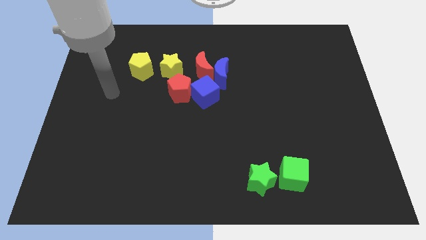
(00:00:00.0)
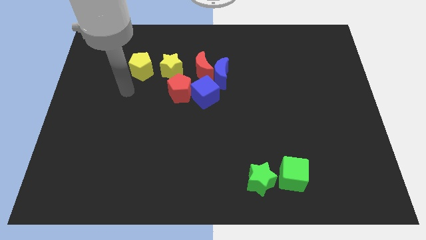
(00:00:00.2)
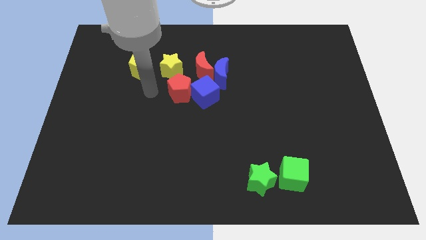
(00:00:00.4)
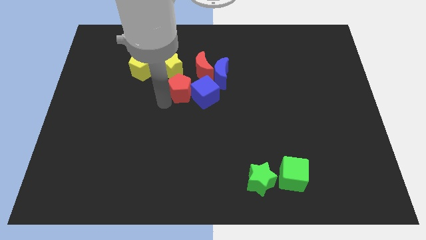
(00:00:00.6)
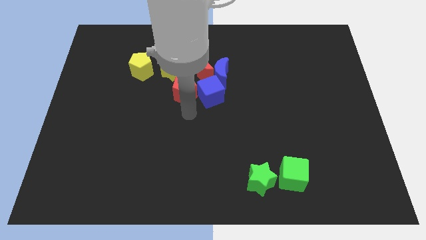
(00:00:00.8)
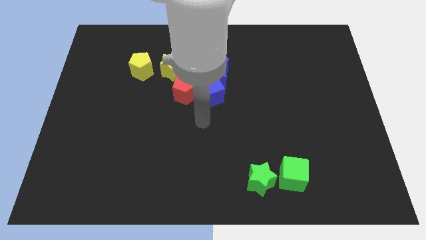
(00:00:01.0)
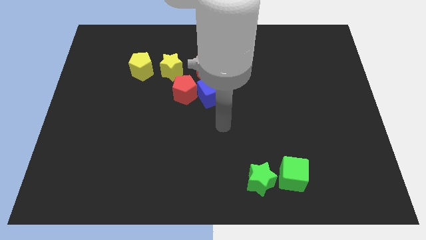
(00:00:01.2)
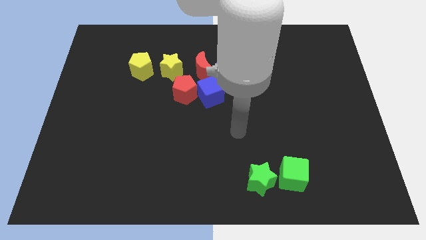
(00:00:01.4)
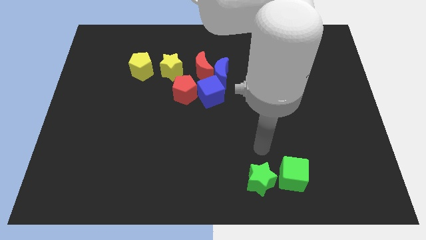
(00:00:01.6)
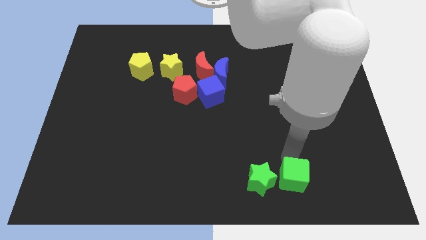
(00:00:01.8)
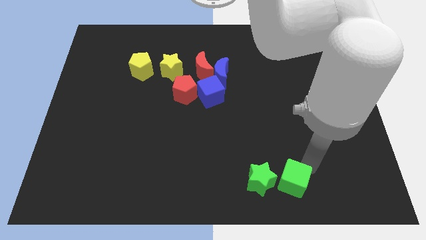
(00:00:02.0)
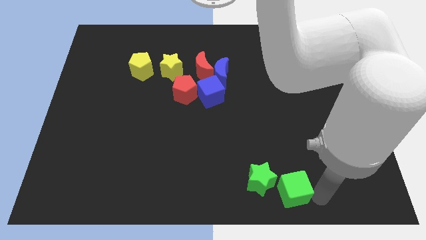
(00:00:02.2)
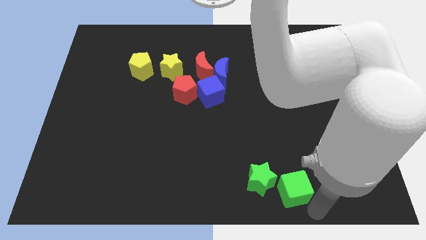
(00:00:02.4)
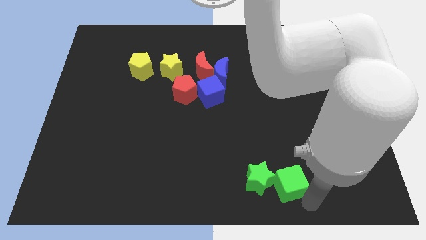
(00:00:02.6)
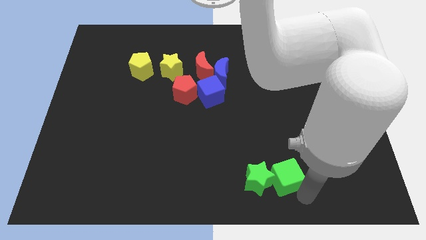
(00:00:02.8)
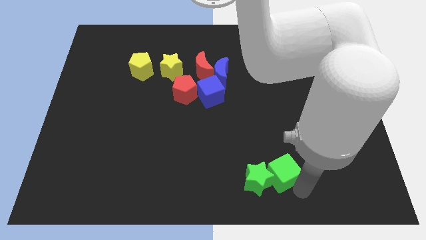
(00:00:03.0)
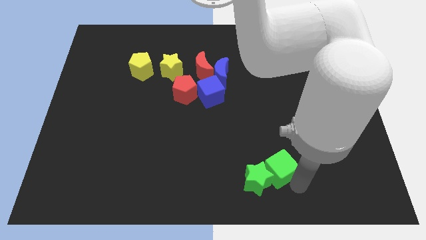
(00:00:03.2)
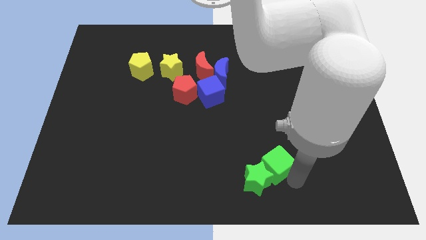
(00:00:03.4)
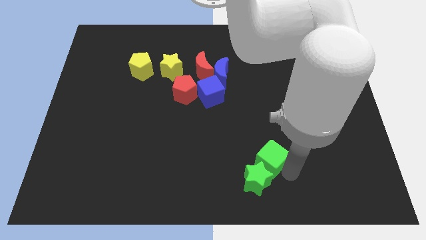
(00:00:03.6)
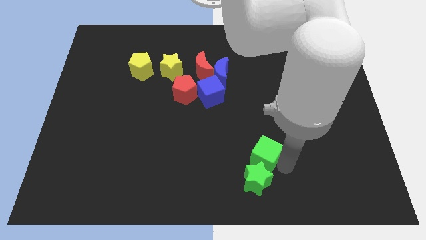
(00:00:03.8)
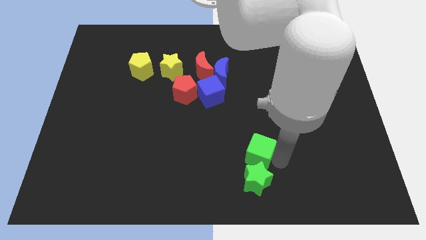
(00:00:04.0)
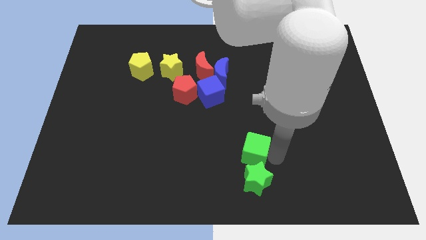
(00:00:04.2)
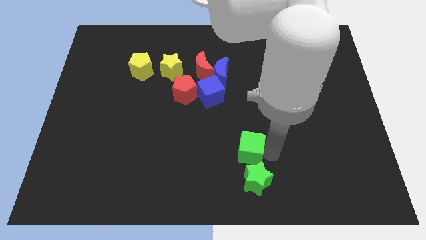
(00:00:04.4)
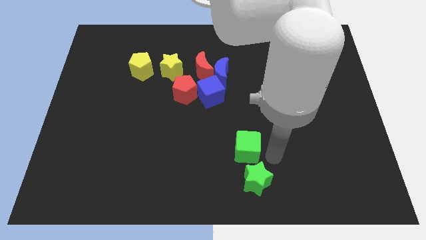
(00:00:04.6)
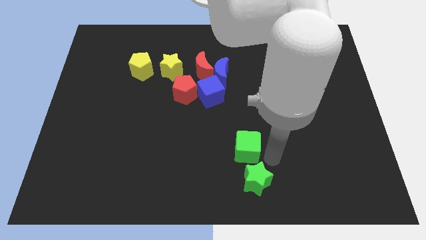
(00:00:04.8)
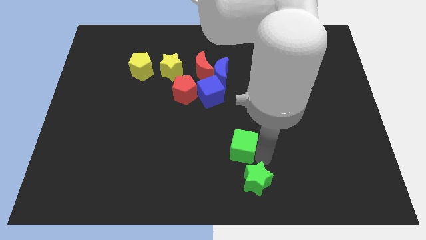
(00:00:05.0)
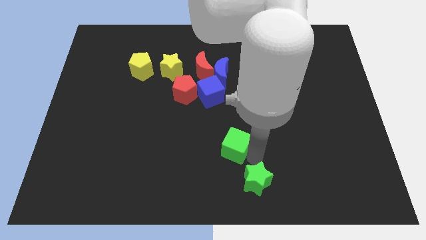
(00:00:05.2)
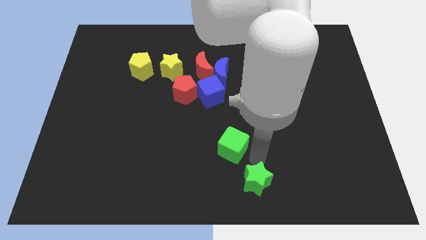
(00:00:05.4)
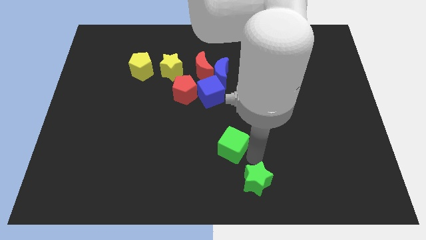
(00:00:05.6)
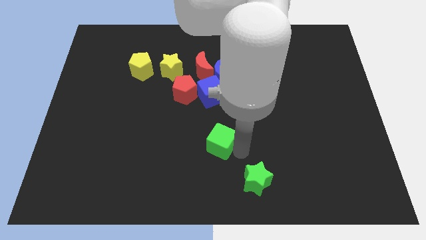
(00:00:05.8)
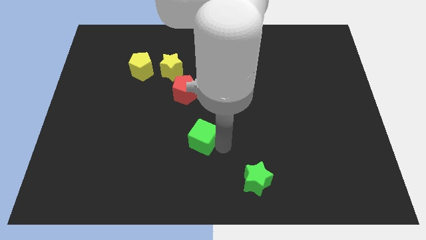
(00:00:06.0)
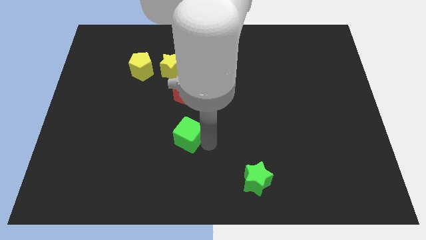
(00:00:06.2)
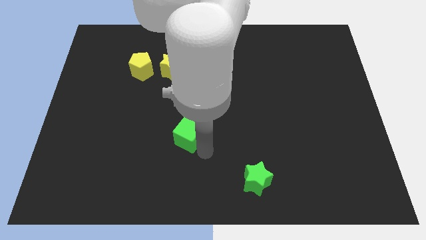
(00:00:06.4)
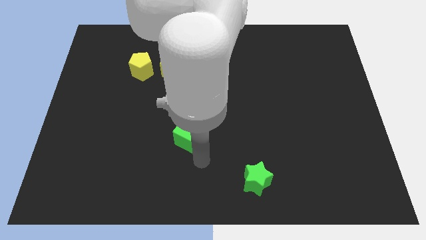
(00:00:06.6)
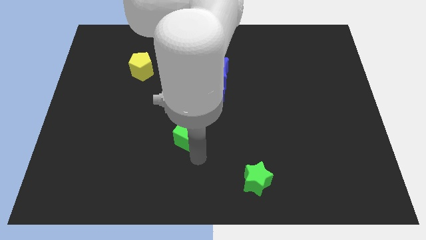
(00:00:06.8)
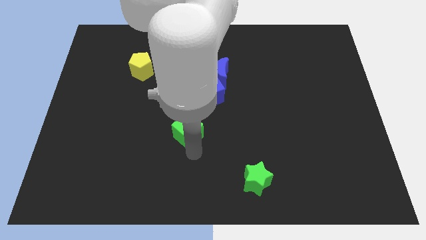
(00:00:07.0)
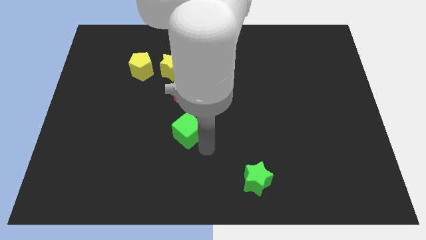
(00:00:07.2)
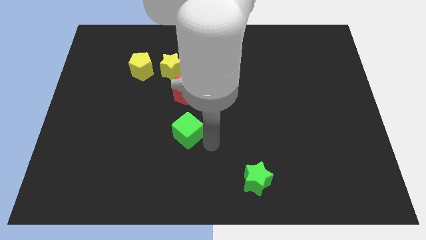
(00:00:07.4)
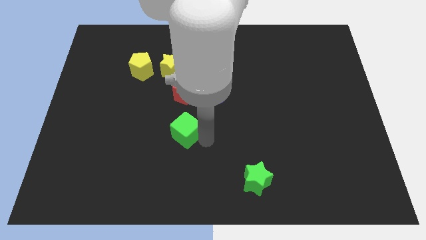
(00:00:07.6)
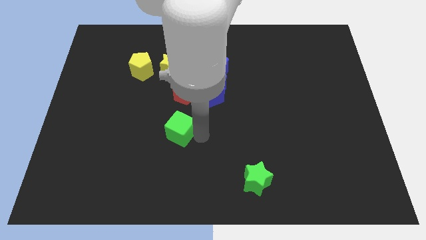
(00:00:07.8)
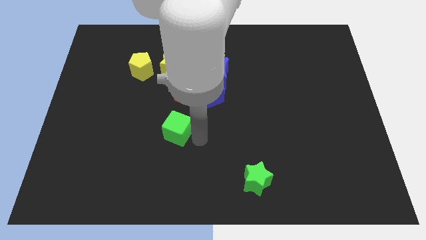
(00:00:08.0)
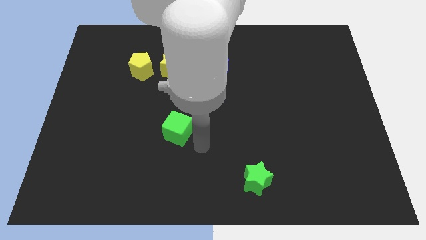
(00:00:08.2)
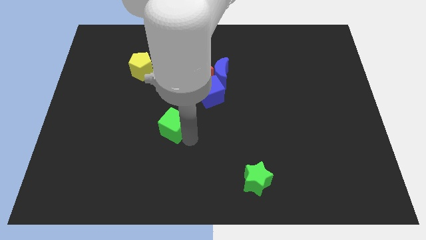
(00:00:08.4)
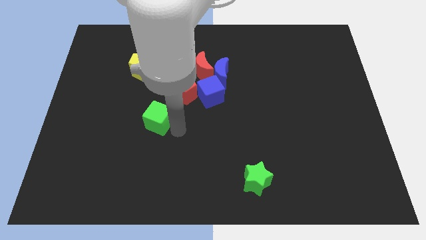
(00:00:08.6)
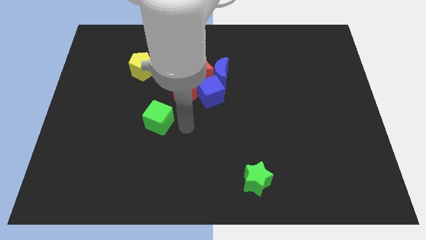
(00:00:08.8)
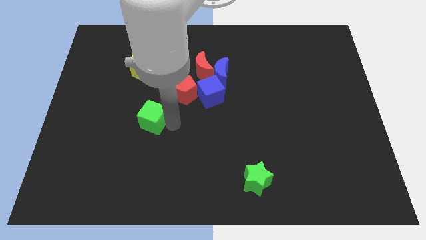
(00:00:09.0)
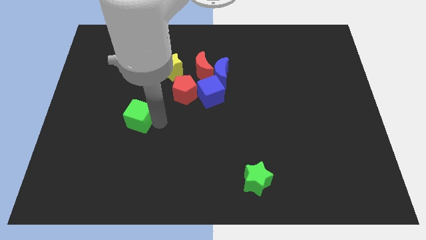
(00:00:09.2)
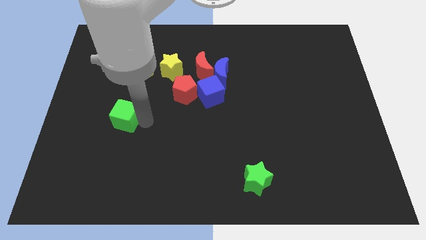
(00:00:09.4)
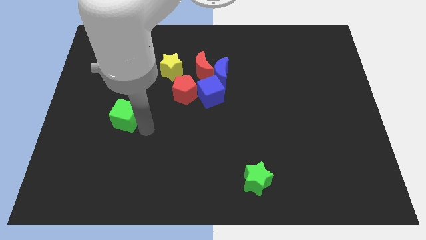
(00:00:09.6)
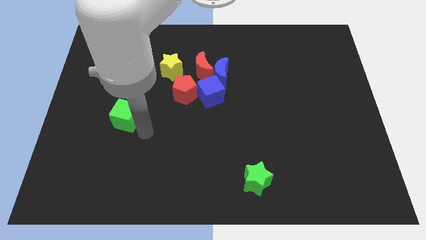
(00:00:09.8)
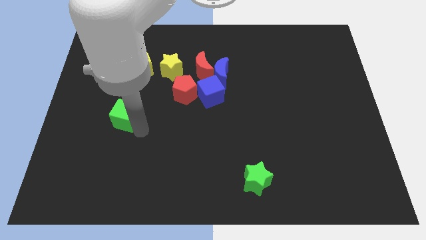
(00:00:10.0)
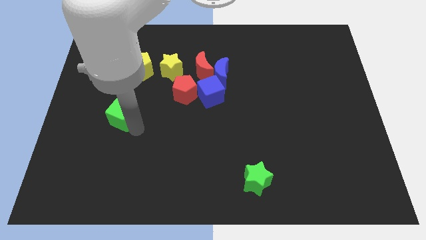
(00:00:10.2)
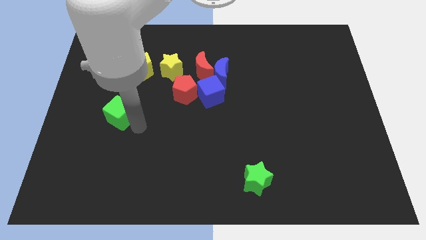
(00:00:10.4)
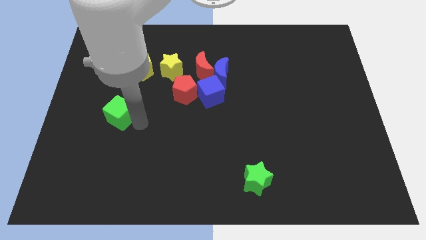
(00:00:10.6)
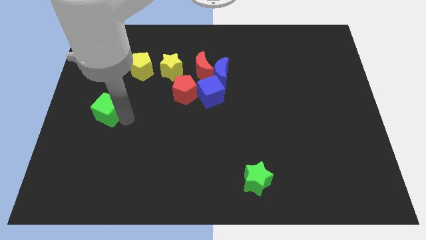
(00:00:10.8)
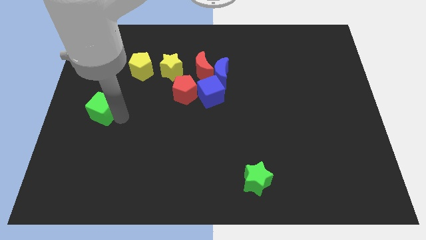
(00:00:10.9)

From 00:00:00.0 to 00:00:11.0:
put the green cube to the left side

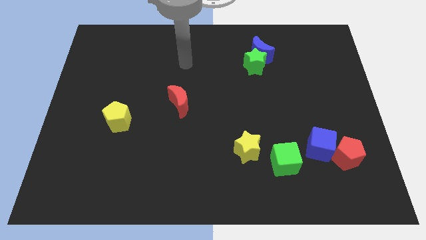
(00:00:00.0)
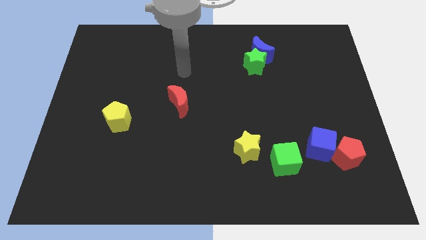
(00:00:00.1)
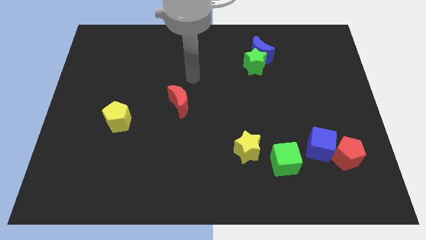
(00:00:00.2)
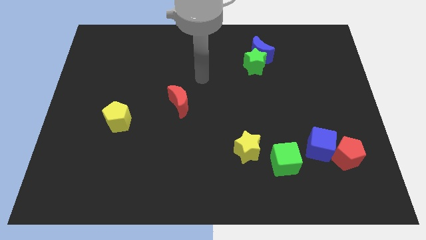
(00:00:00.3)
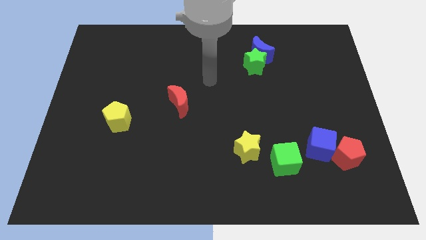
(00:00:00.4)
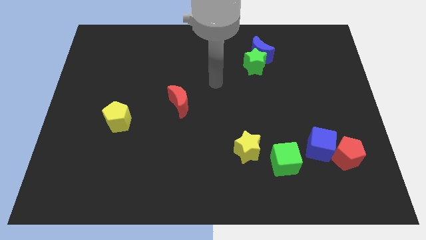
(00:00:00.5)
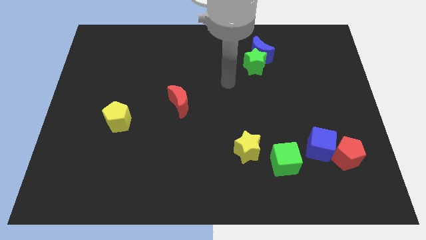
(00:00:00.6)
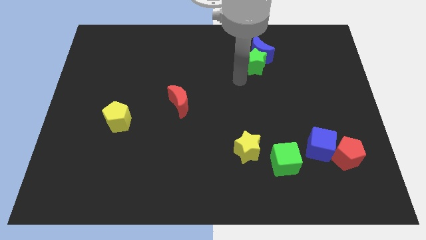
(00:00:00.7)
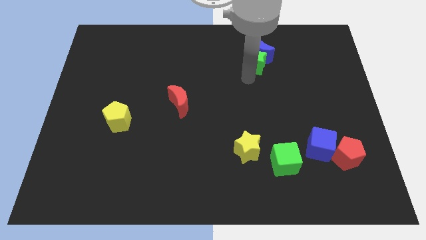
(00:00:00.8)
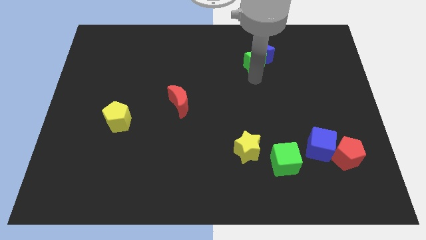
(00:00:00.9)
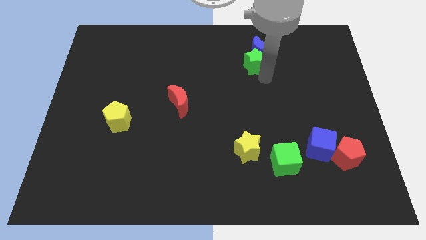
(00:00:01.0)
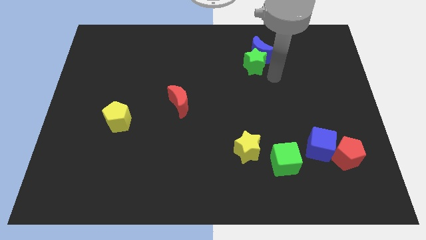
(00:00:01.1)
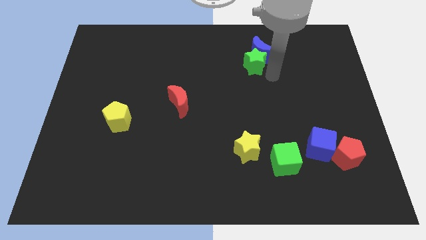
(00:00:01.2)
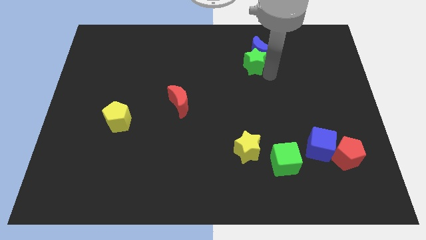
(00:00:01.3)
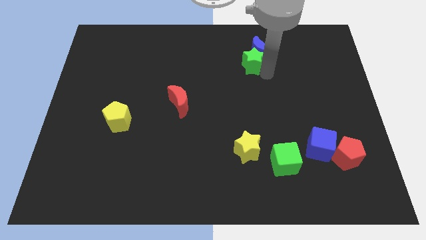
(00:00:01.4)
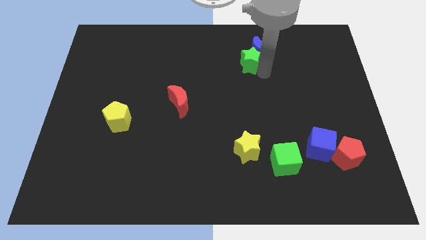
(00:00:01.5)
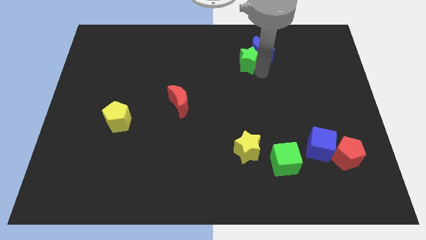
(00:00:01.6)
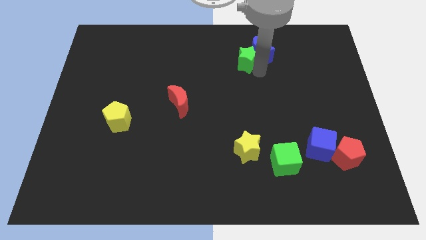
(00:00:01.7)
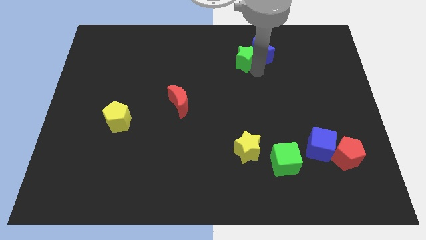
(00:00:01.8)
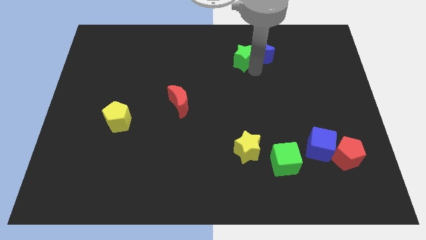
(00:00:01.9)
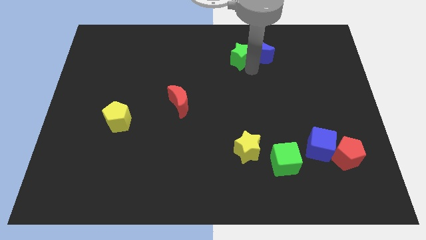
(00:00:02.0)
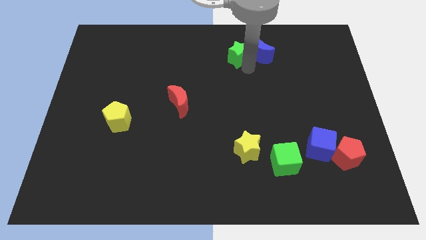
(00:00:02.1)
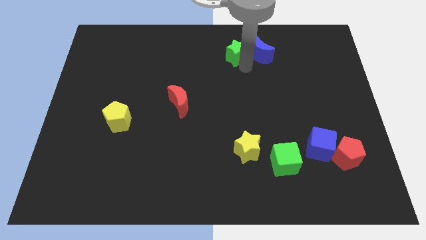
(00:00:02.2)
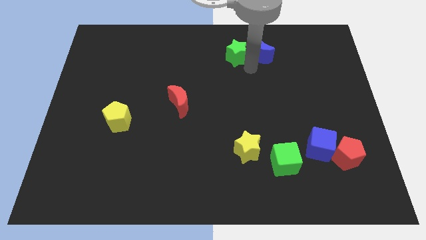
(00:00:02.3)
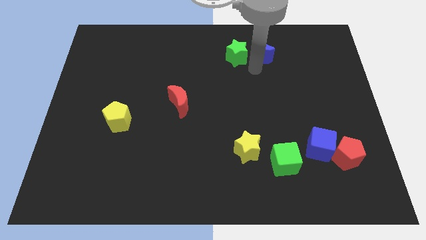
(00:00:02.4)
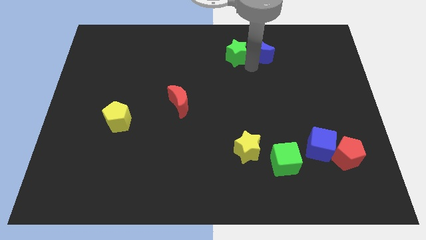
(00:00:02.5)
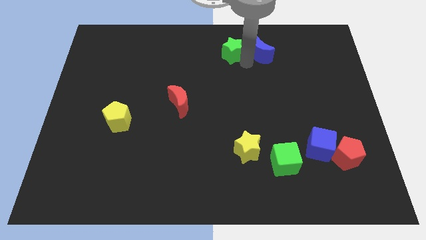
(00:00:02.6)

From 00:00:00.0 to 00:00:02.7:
put the green star to the top side
